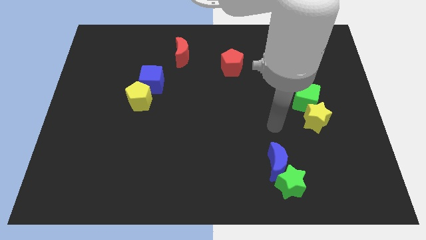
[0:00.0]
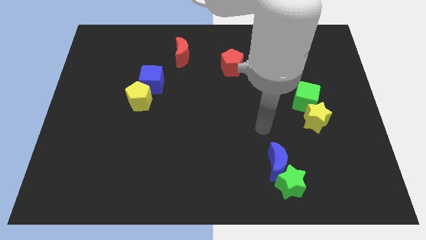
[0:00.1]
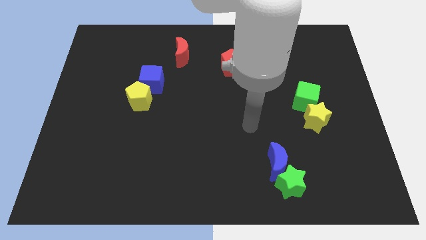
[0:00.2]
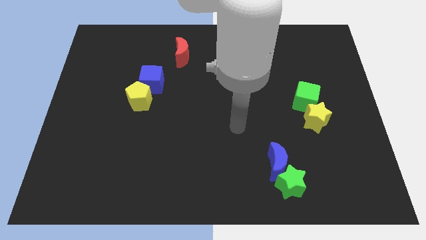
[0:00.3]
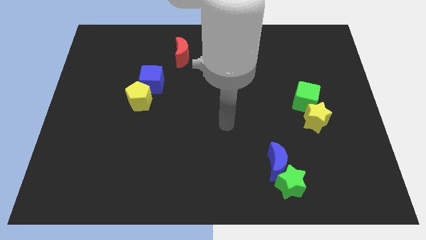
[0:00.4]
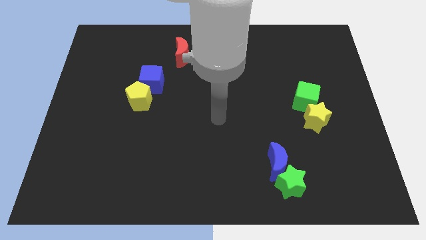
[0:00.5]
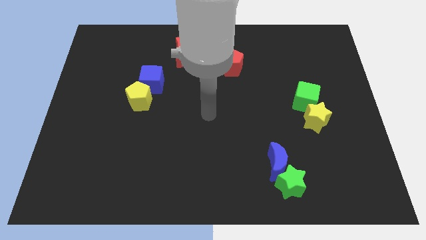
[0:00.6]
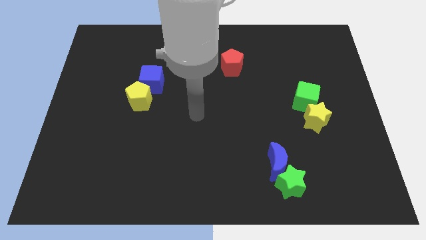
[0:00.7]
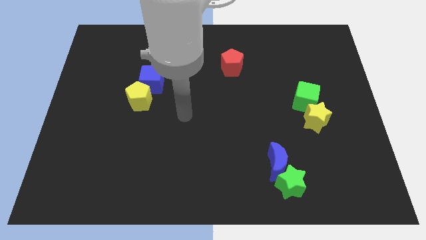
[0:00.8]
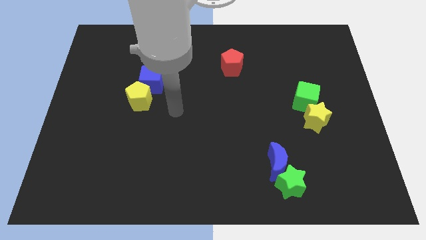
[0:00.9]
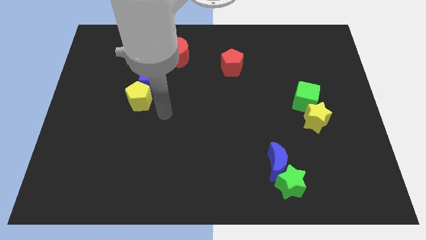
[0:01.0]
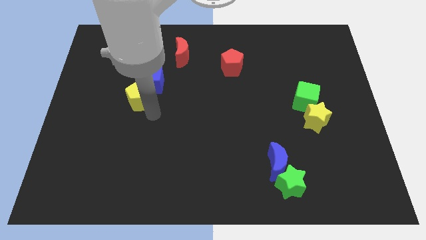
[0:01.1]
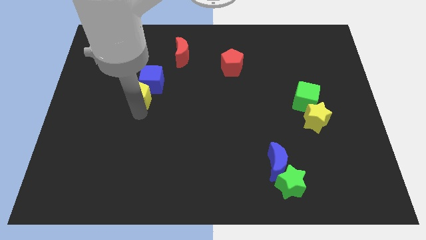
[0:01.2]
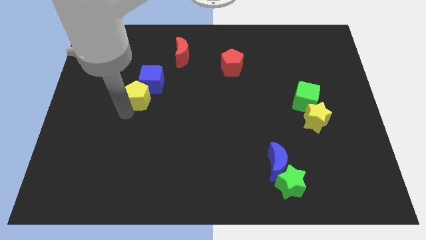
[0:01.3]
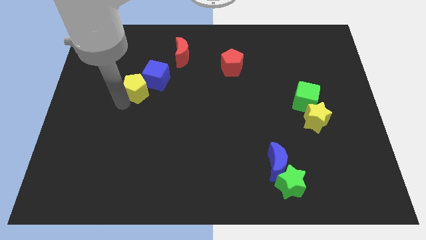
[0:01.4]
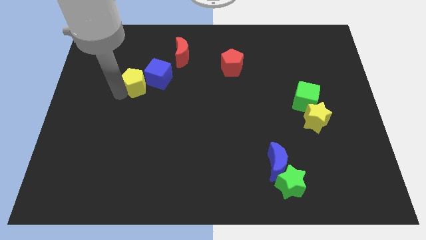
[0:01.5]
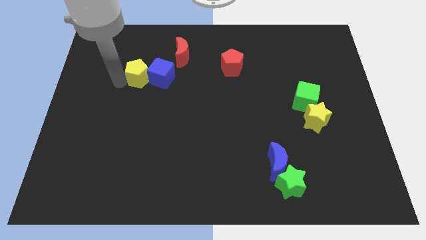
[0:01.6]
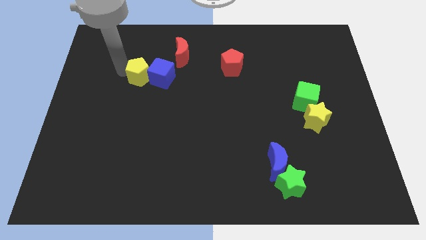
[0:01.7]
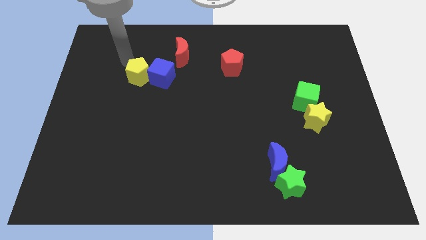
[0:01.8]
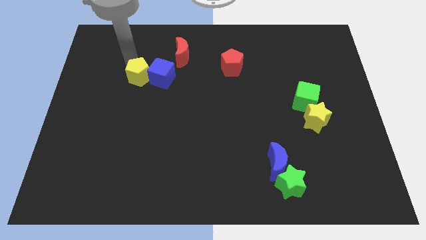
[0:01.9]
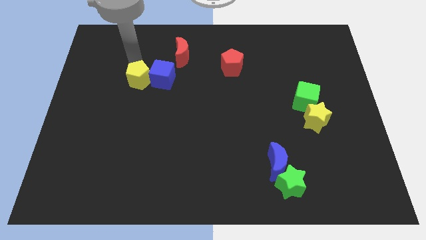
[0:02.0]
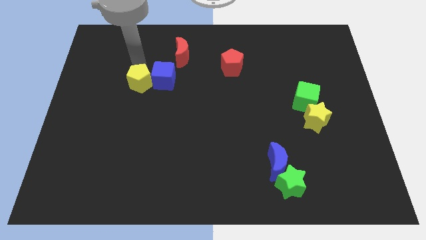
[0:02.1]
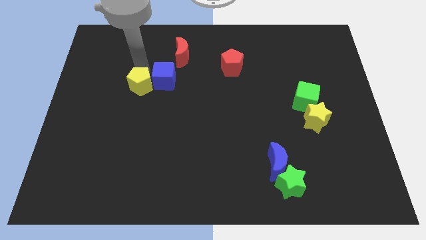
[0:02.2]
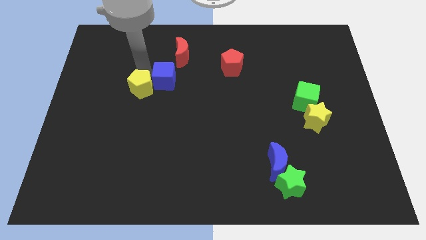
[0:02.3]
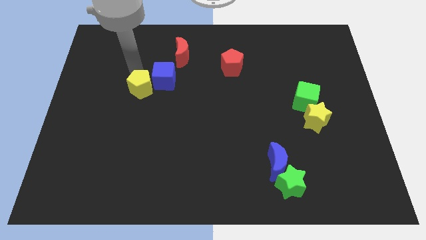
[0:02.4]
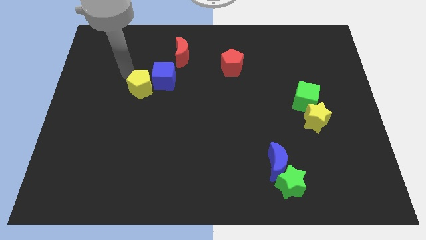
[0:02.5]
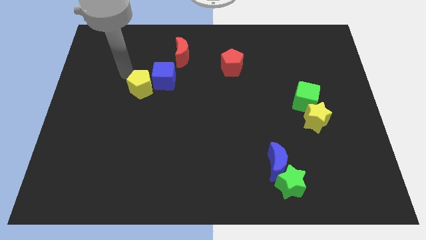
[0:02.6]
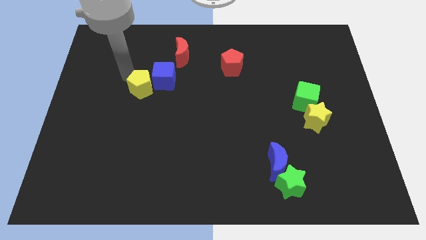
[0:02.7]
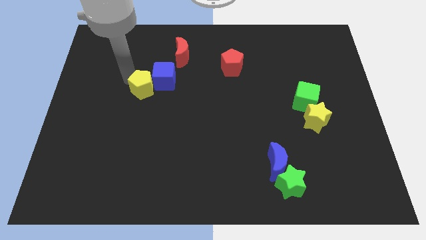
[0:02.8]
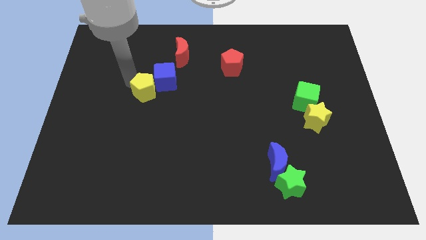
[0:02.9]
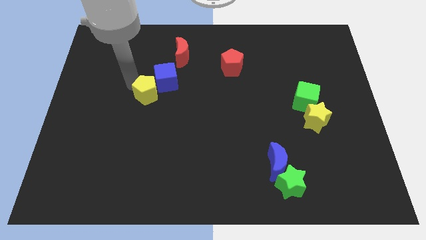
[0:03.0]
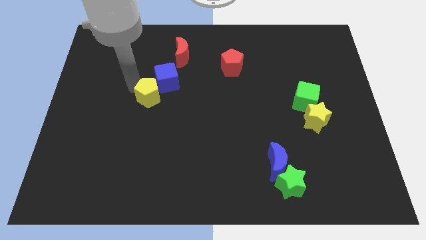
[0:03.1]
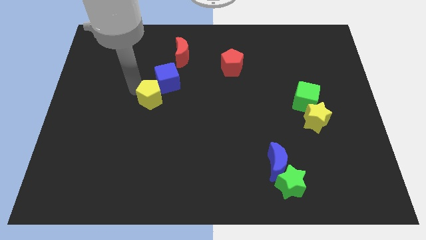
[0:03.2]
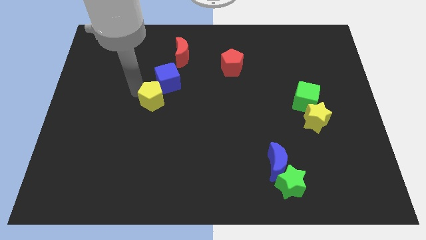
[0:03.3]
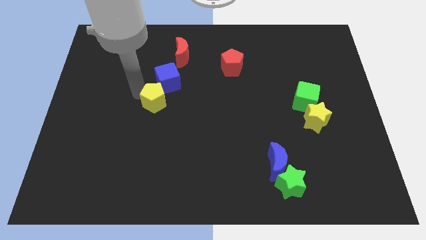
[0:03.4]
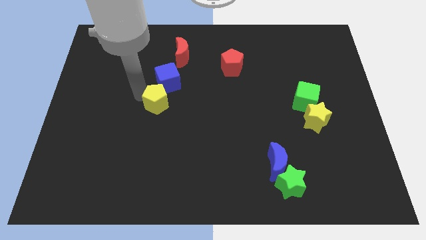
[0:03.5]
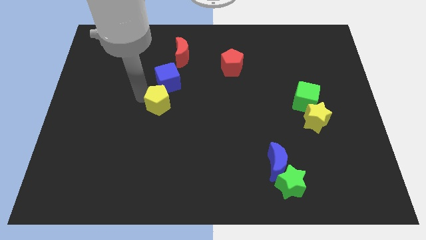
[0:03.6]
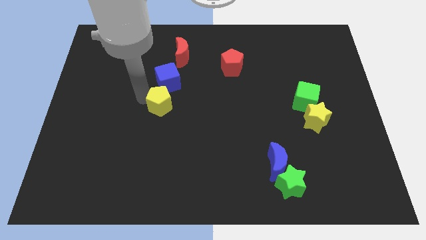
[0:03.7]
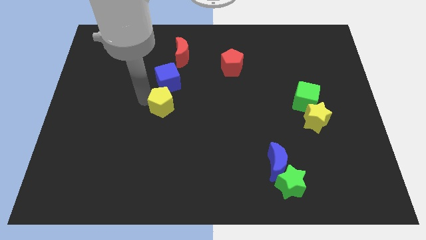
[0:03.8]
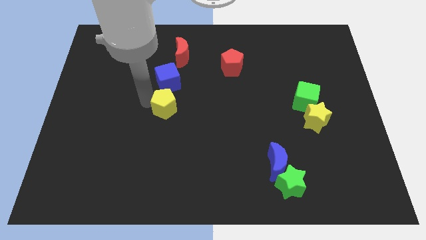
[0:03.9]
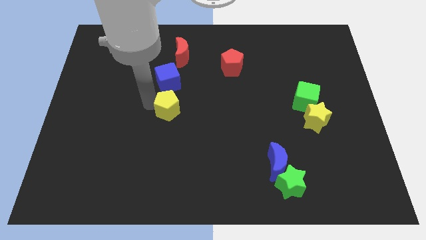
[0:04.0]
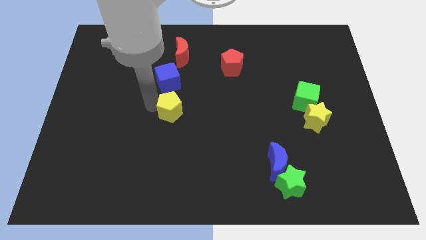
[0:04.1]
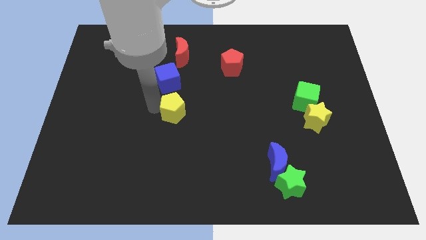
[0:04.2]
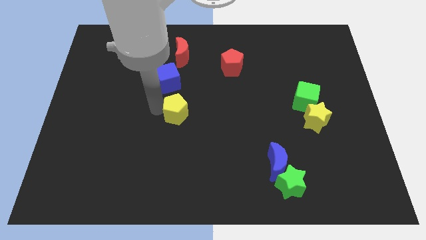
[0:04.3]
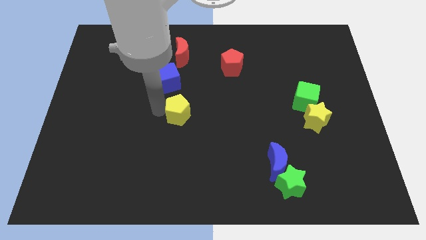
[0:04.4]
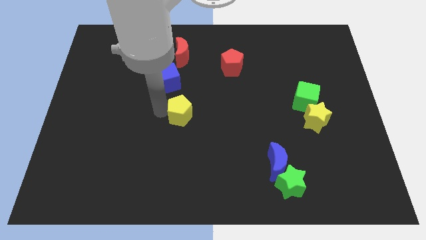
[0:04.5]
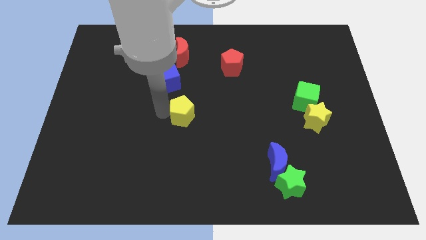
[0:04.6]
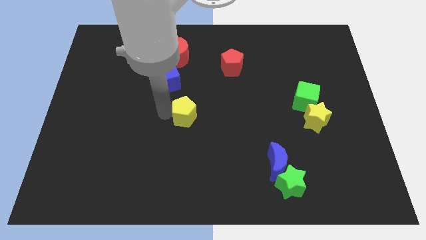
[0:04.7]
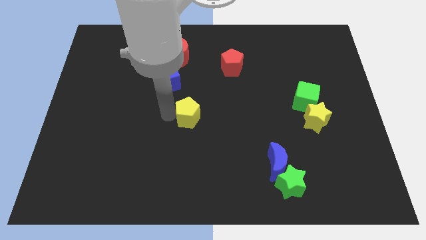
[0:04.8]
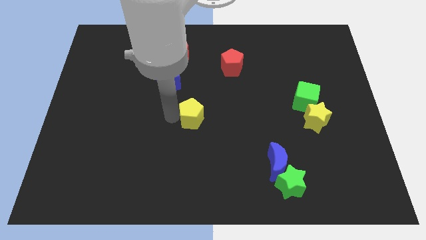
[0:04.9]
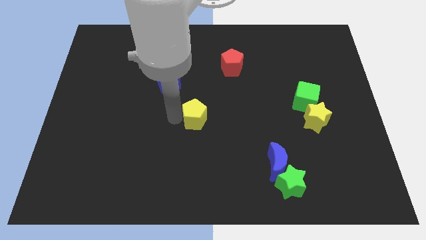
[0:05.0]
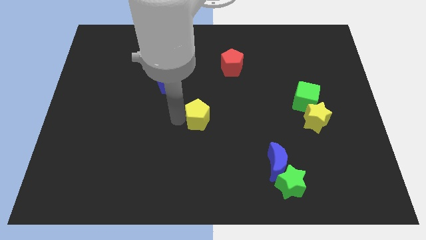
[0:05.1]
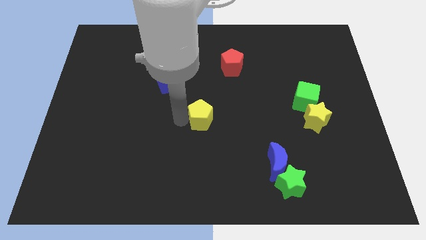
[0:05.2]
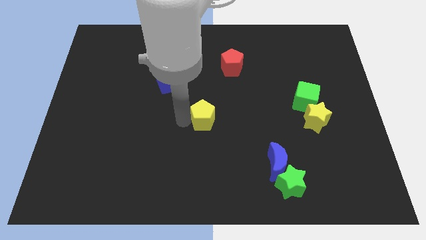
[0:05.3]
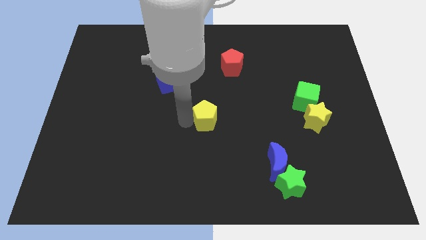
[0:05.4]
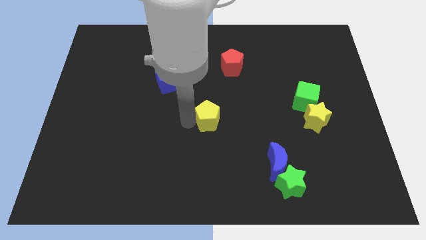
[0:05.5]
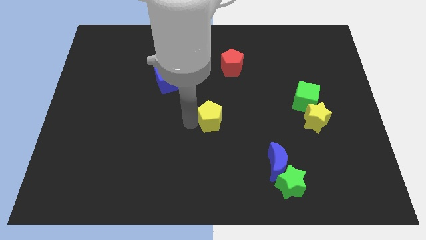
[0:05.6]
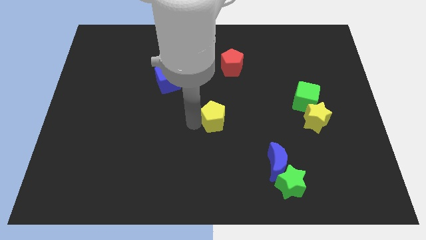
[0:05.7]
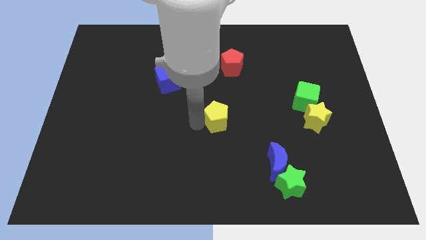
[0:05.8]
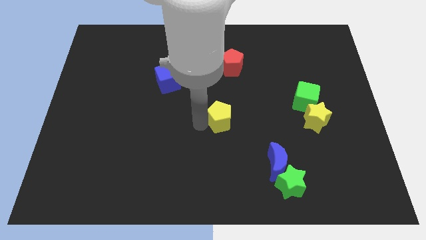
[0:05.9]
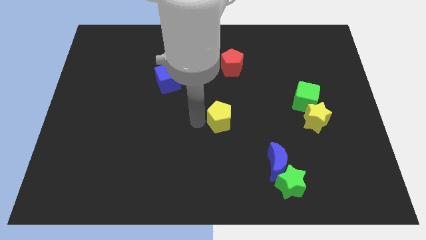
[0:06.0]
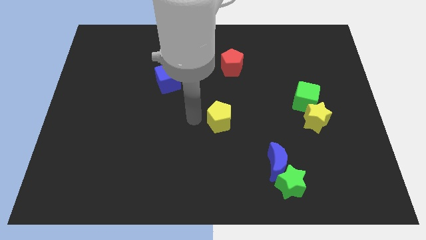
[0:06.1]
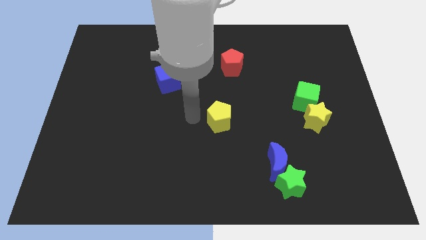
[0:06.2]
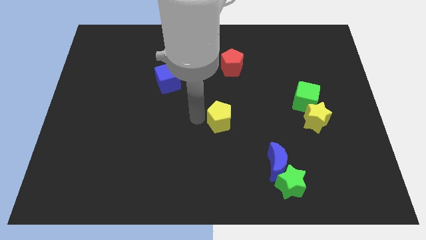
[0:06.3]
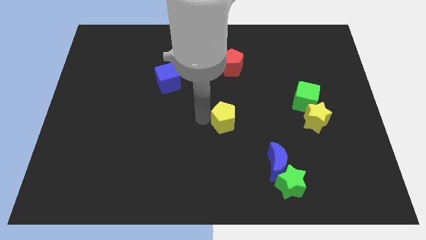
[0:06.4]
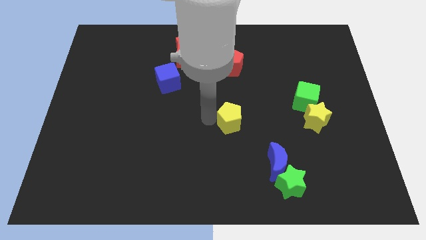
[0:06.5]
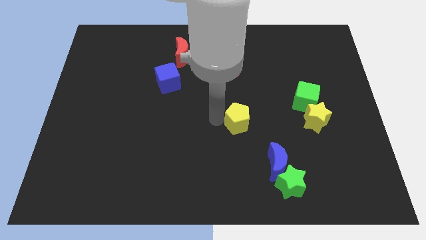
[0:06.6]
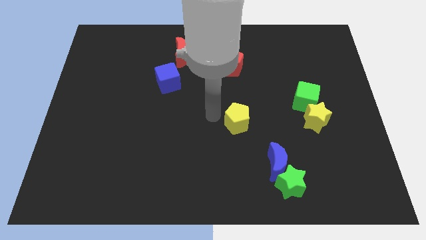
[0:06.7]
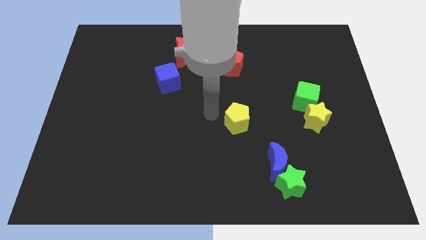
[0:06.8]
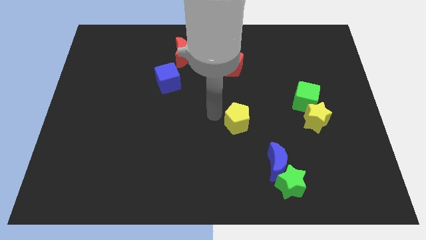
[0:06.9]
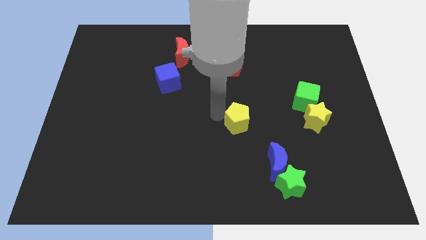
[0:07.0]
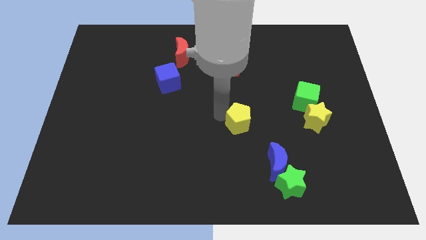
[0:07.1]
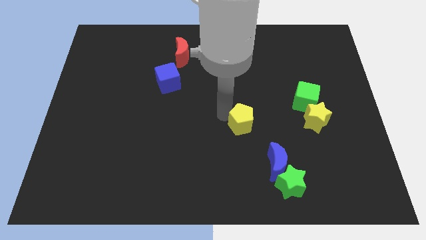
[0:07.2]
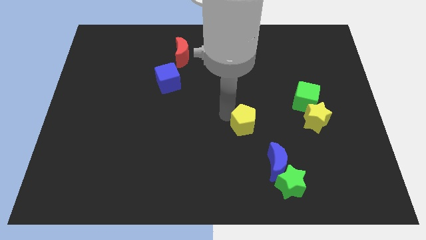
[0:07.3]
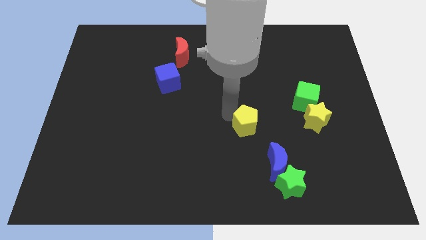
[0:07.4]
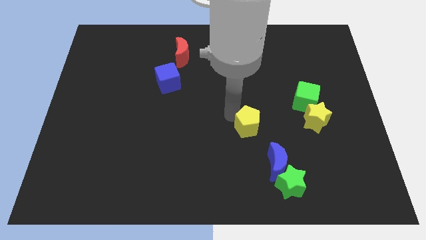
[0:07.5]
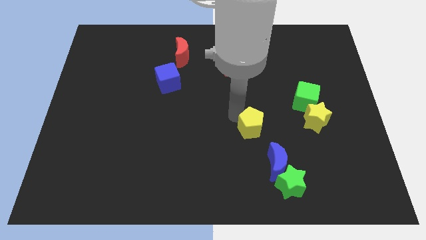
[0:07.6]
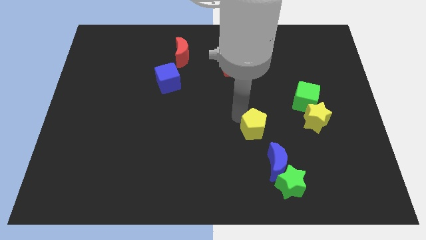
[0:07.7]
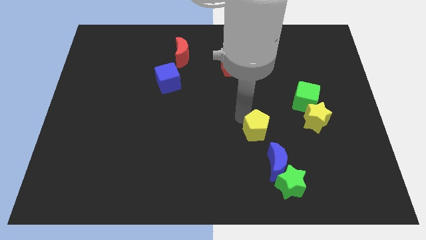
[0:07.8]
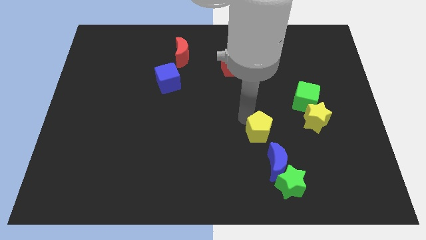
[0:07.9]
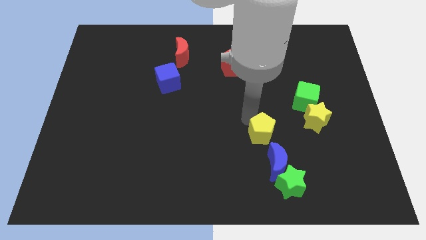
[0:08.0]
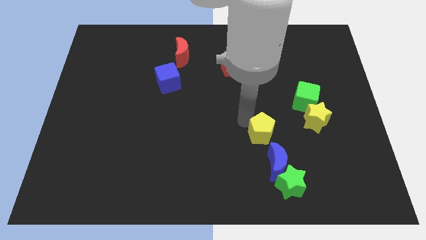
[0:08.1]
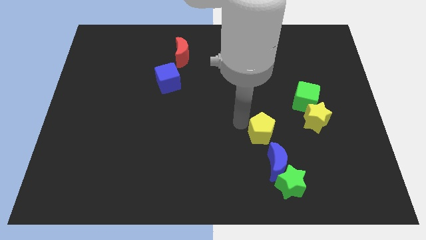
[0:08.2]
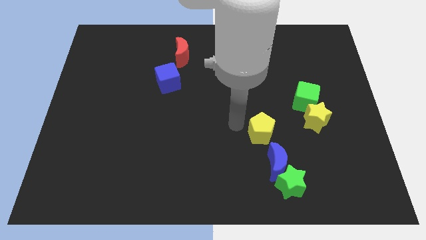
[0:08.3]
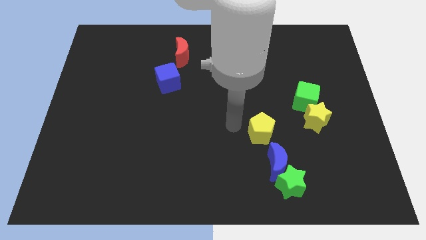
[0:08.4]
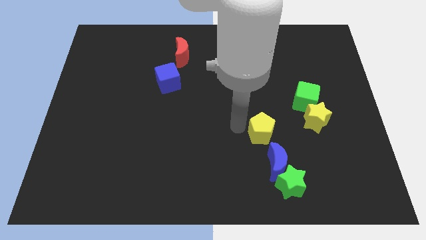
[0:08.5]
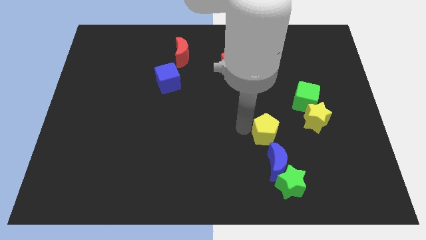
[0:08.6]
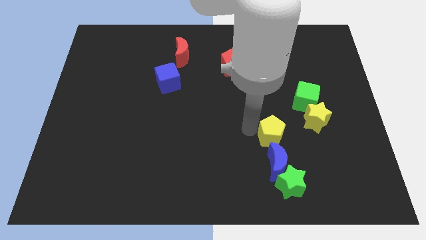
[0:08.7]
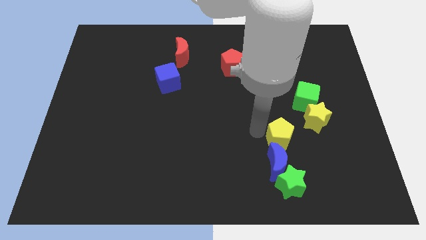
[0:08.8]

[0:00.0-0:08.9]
push the yellow pentagon diagonally up and to the right of the blue moon
